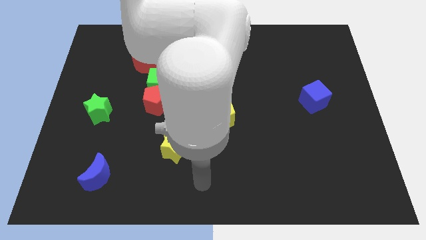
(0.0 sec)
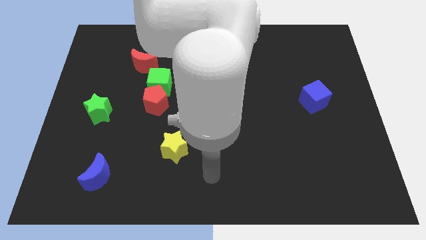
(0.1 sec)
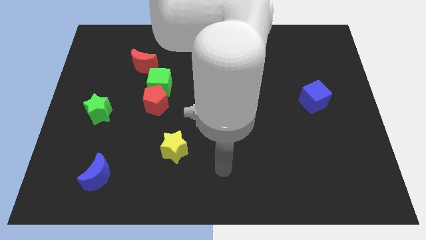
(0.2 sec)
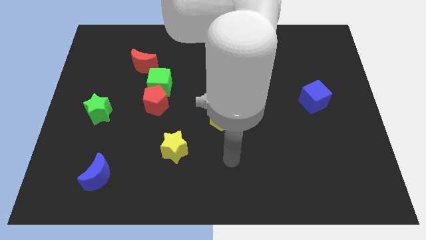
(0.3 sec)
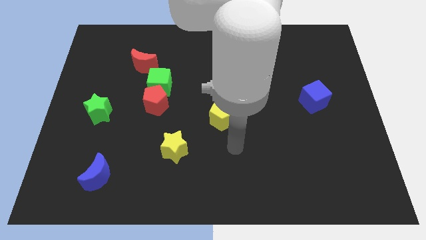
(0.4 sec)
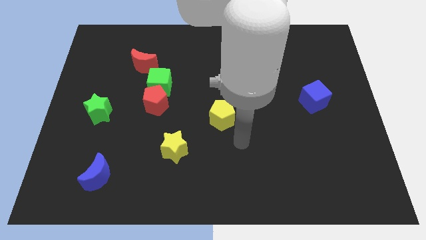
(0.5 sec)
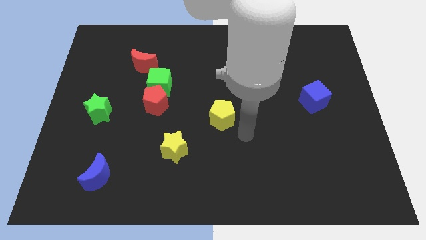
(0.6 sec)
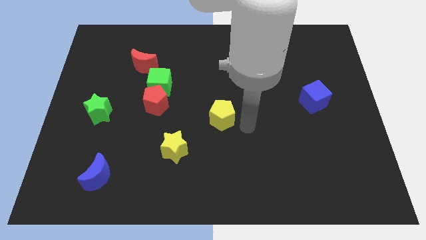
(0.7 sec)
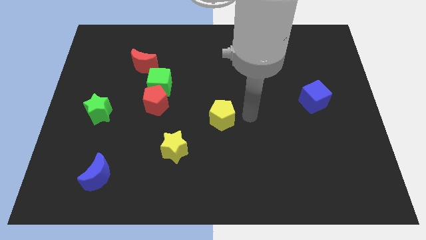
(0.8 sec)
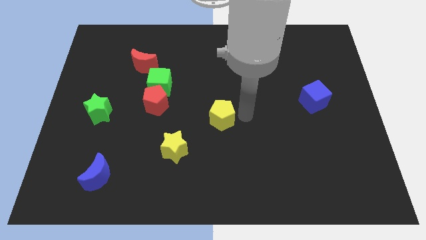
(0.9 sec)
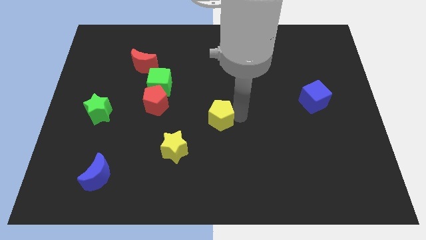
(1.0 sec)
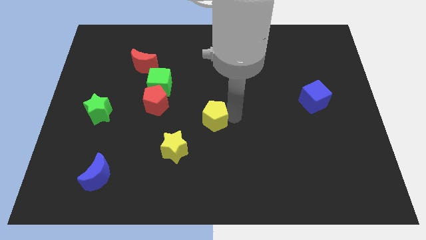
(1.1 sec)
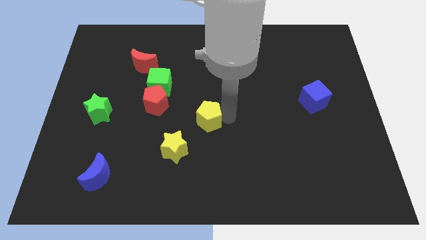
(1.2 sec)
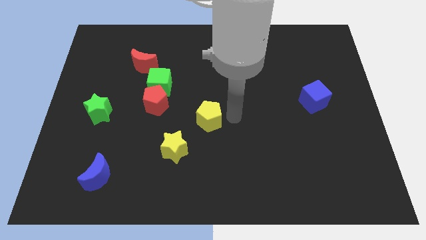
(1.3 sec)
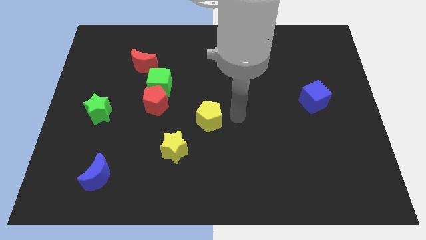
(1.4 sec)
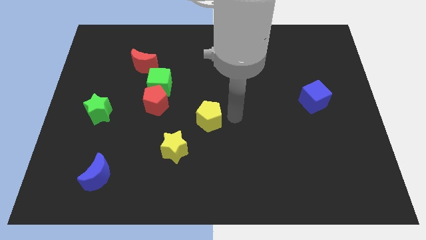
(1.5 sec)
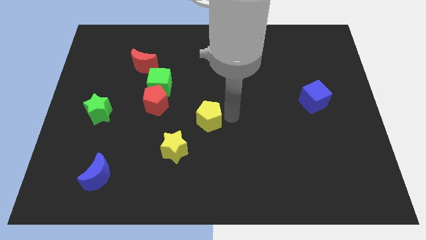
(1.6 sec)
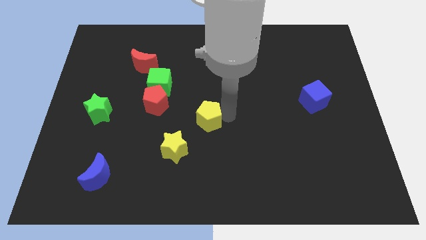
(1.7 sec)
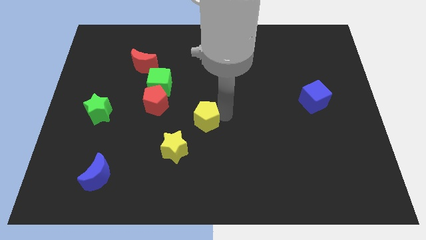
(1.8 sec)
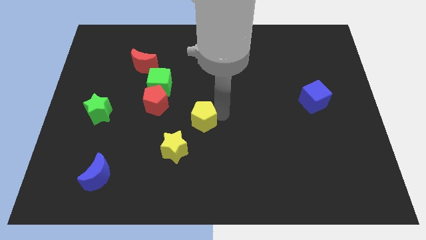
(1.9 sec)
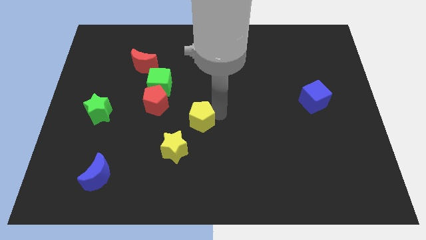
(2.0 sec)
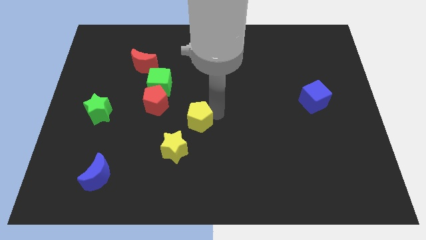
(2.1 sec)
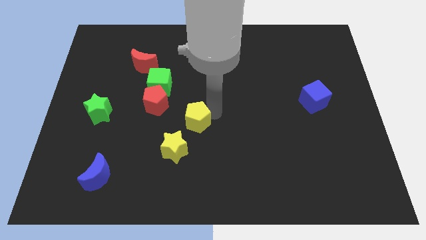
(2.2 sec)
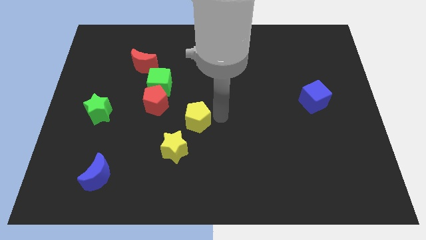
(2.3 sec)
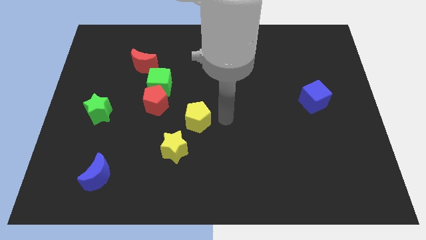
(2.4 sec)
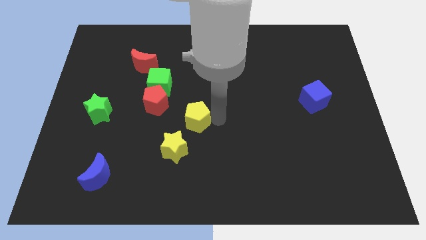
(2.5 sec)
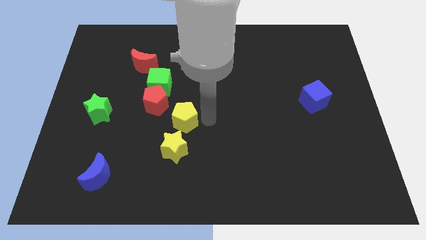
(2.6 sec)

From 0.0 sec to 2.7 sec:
slightly move the yellow pentagon left

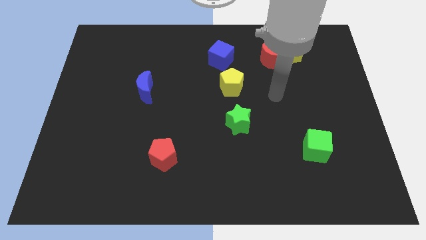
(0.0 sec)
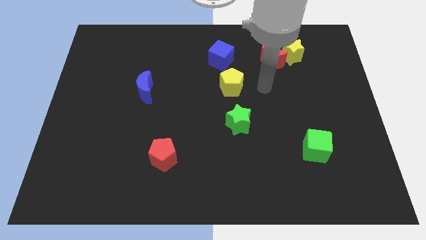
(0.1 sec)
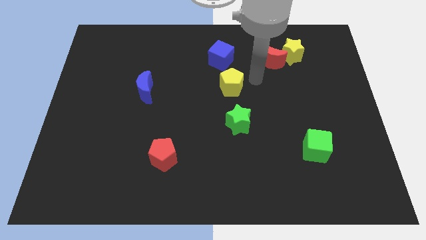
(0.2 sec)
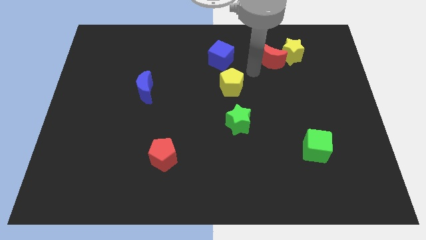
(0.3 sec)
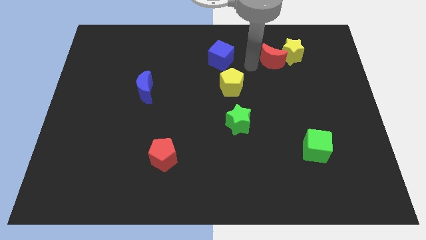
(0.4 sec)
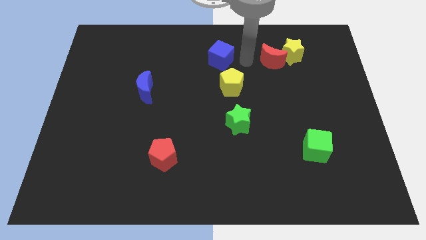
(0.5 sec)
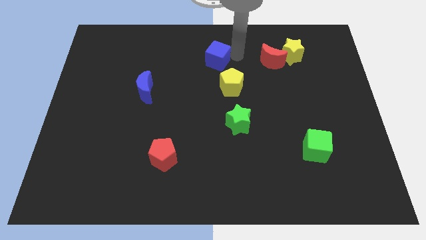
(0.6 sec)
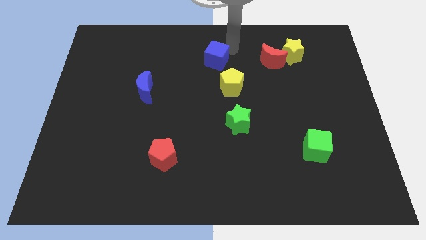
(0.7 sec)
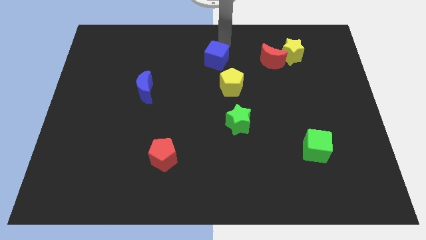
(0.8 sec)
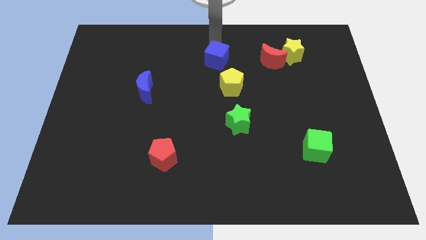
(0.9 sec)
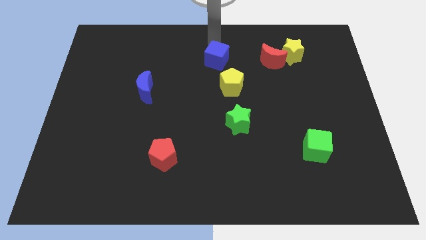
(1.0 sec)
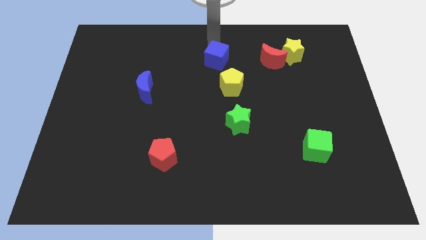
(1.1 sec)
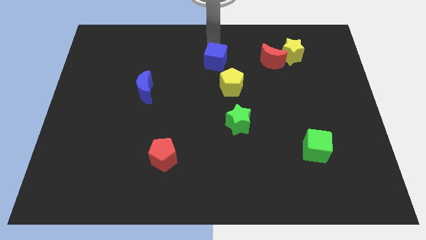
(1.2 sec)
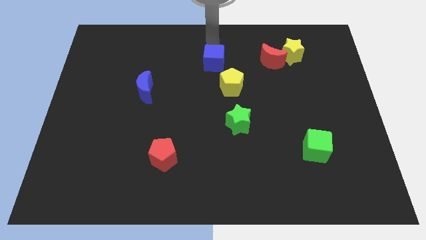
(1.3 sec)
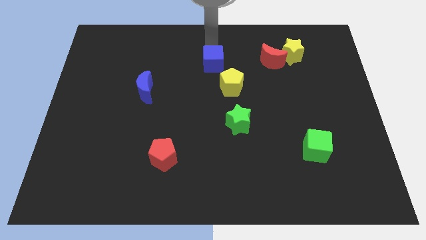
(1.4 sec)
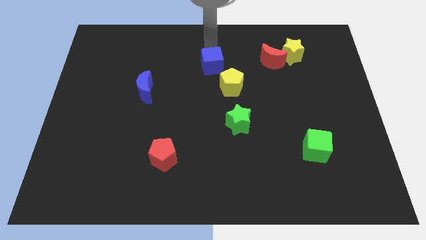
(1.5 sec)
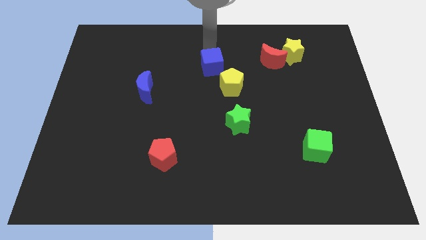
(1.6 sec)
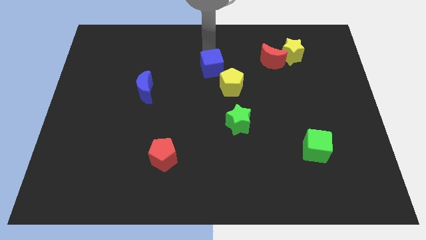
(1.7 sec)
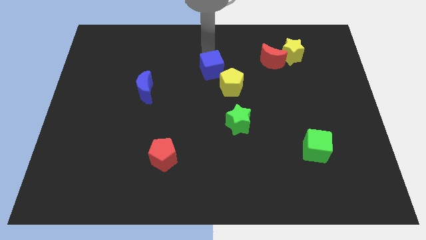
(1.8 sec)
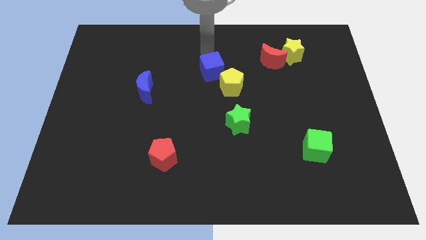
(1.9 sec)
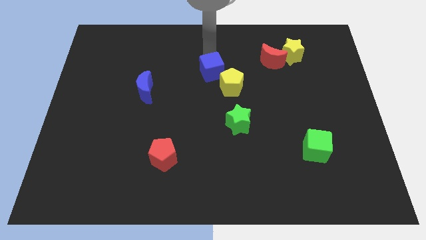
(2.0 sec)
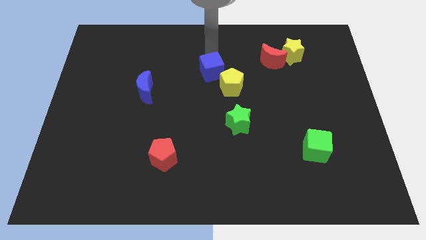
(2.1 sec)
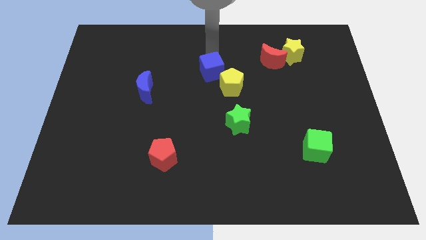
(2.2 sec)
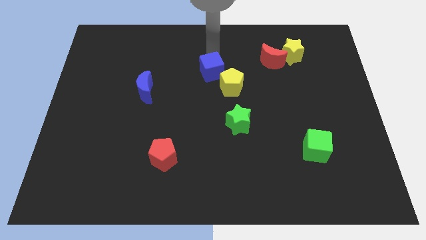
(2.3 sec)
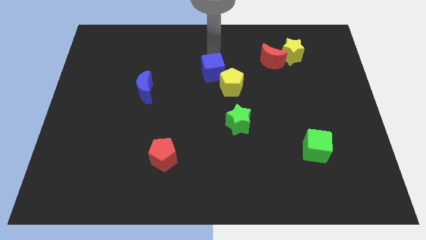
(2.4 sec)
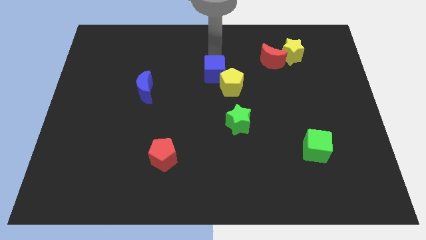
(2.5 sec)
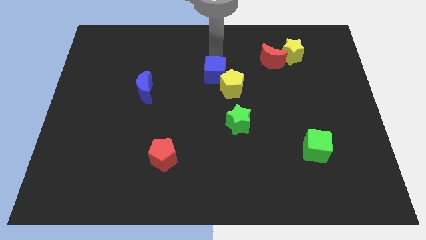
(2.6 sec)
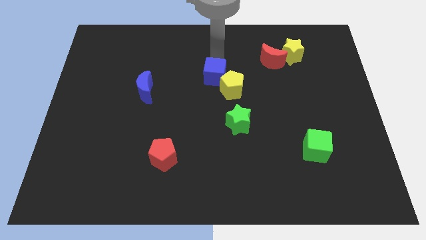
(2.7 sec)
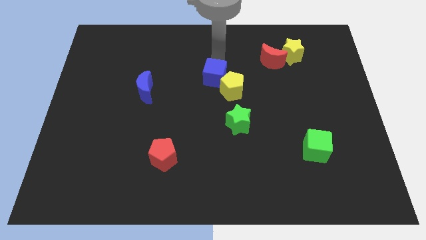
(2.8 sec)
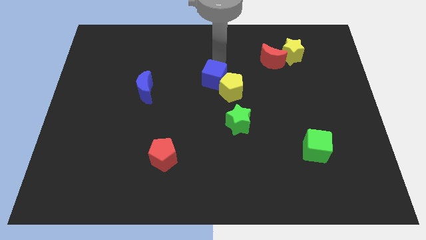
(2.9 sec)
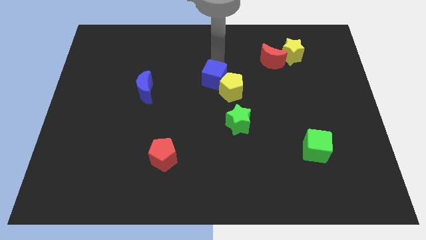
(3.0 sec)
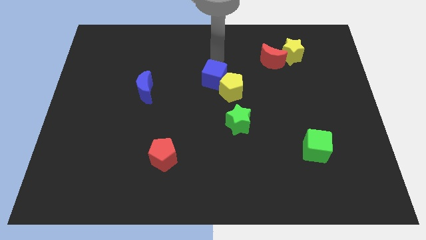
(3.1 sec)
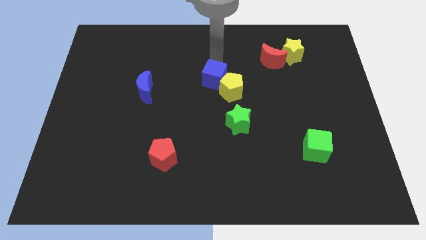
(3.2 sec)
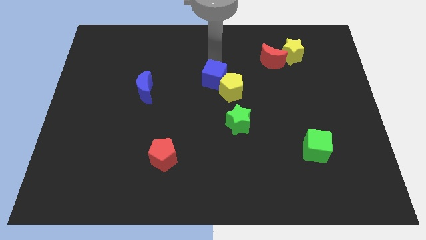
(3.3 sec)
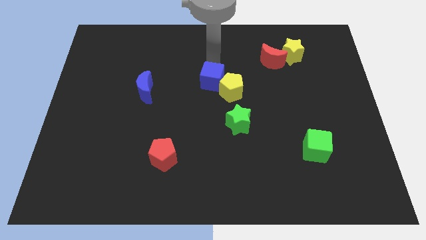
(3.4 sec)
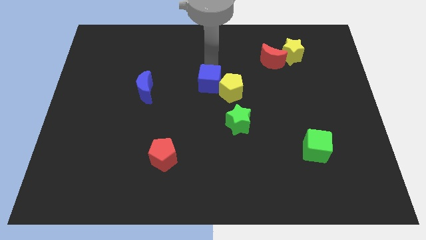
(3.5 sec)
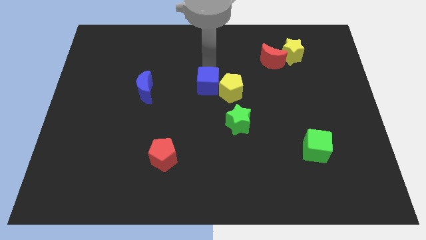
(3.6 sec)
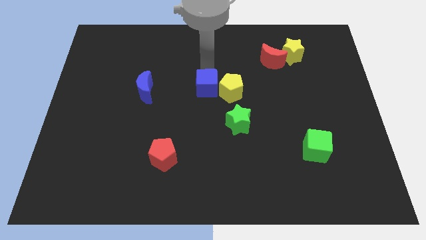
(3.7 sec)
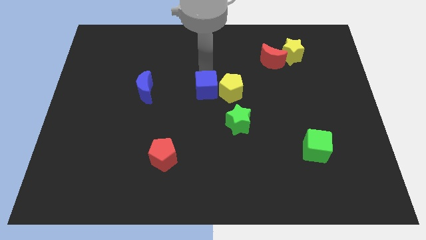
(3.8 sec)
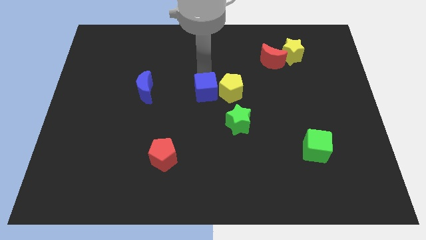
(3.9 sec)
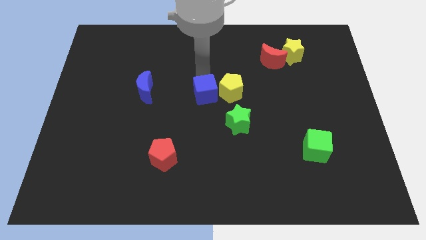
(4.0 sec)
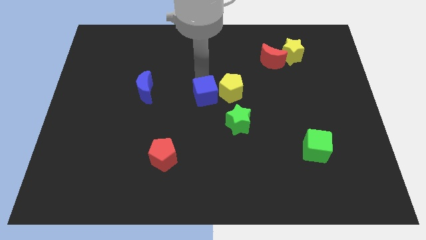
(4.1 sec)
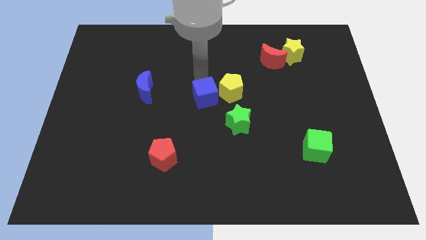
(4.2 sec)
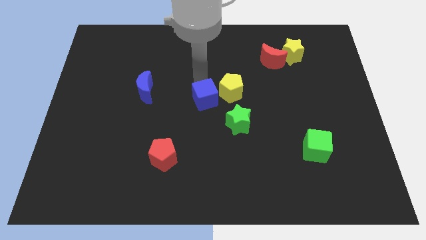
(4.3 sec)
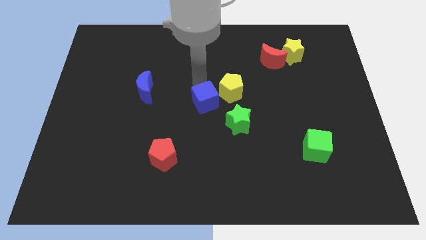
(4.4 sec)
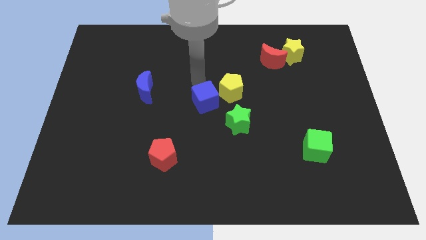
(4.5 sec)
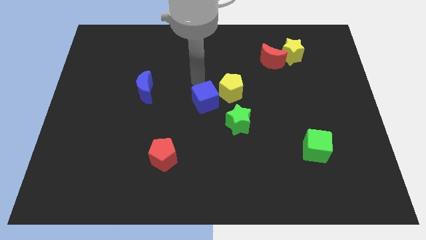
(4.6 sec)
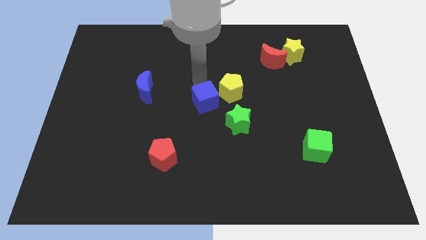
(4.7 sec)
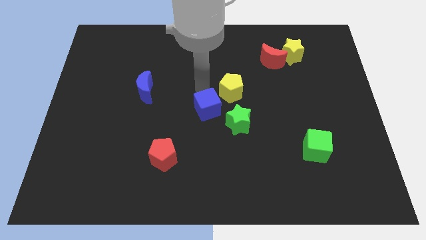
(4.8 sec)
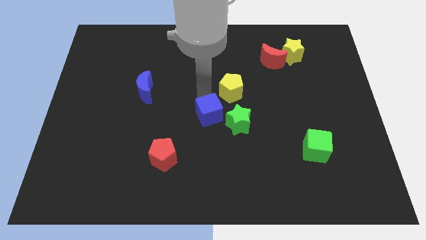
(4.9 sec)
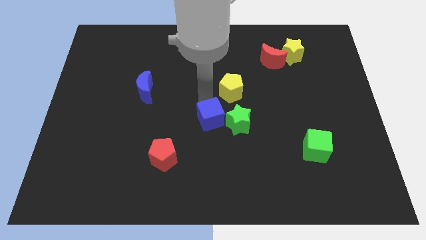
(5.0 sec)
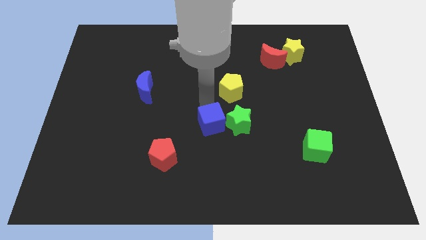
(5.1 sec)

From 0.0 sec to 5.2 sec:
move the blue cube down

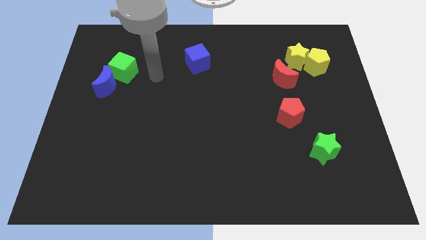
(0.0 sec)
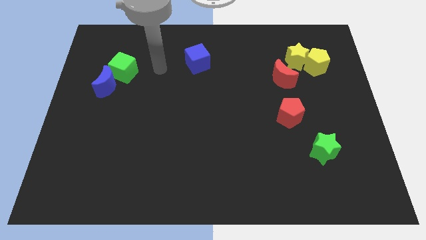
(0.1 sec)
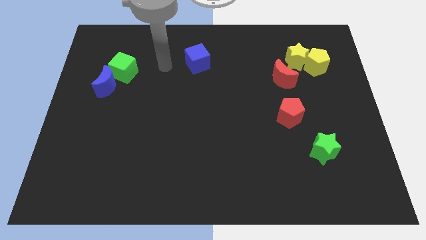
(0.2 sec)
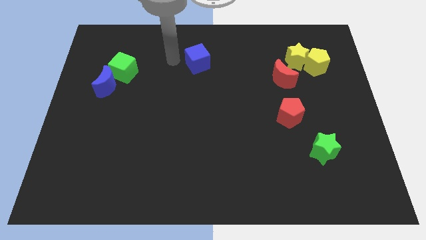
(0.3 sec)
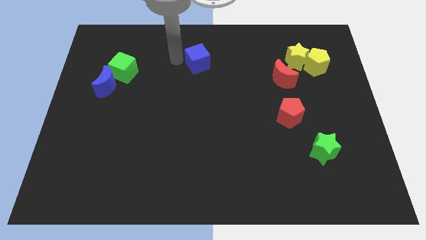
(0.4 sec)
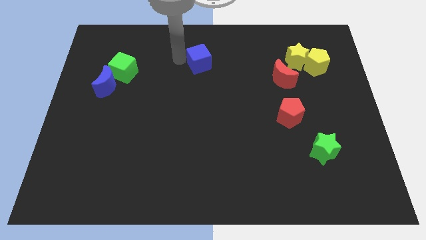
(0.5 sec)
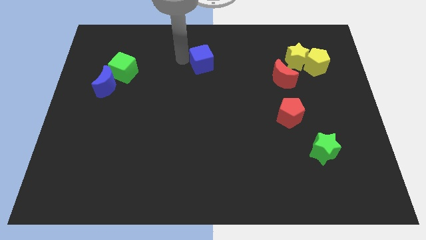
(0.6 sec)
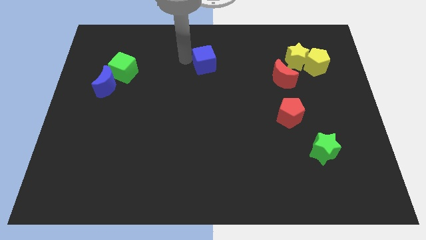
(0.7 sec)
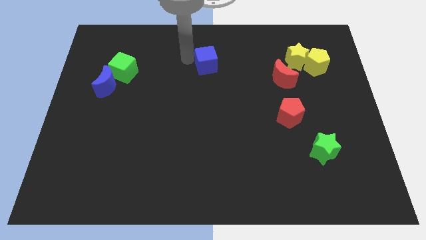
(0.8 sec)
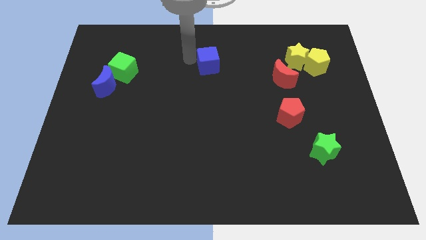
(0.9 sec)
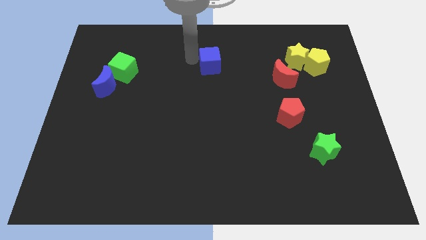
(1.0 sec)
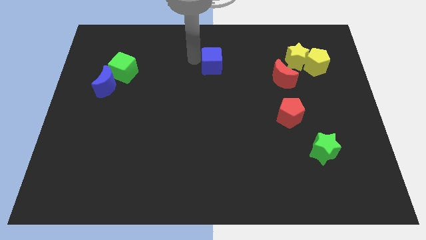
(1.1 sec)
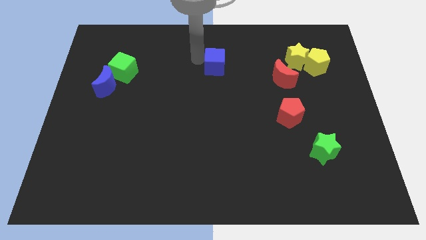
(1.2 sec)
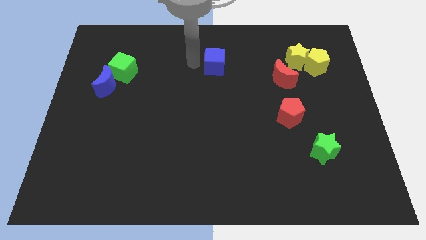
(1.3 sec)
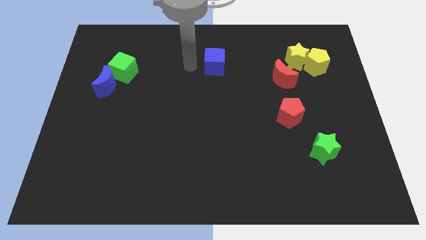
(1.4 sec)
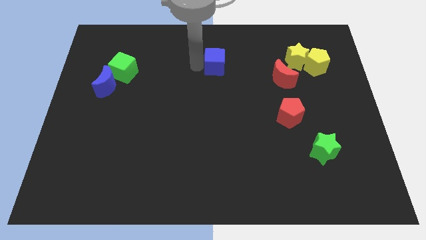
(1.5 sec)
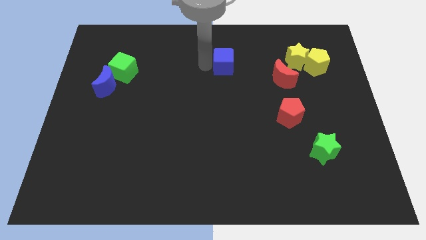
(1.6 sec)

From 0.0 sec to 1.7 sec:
slightly move the blue cube to the right
